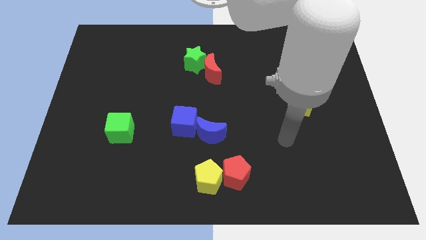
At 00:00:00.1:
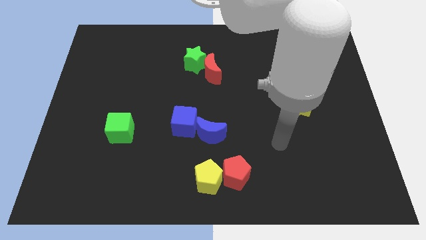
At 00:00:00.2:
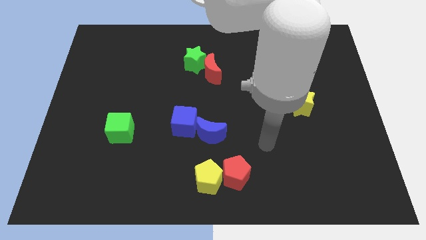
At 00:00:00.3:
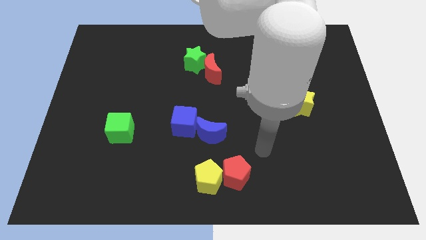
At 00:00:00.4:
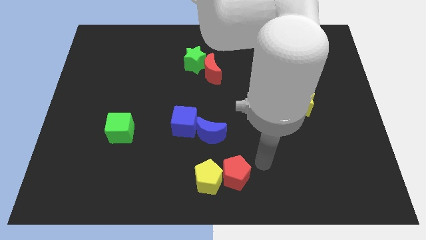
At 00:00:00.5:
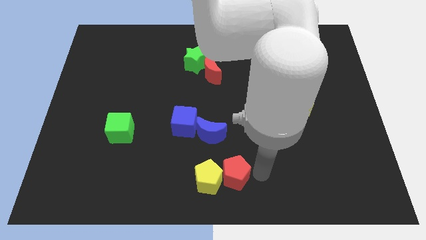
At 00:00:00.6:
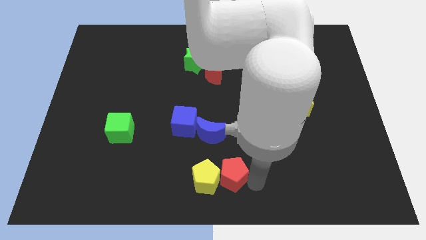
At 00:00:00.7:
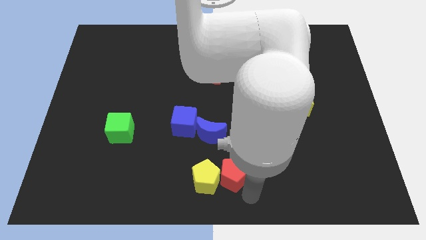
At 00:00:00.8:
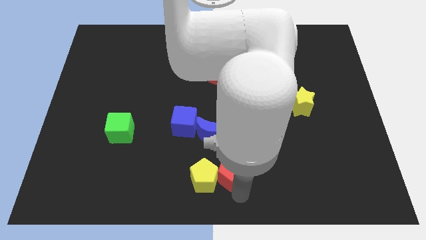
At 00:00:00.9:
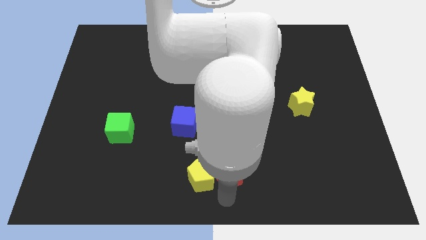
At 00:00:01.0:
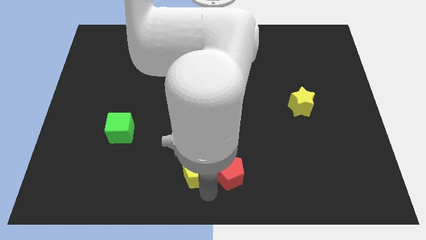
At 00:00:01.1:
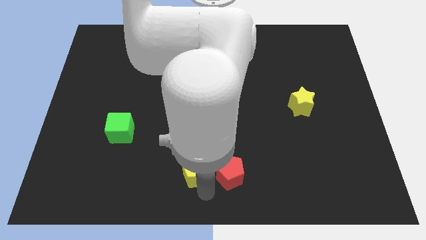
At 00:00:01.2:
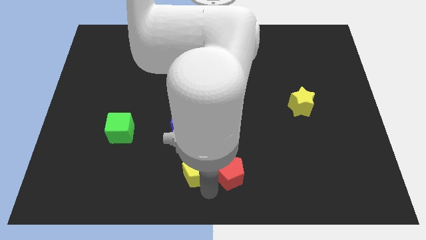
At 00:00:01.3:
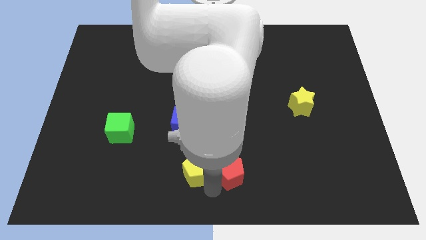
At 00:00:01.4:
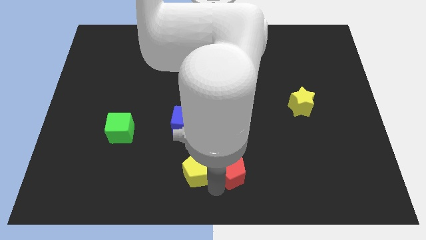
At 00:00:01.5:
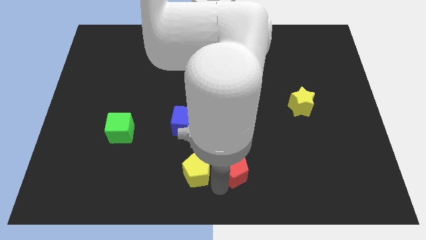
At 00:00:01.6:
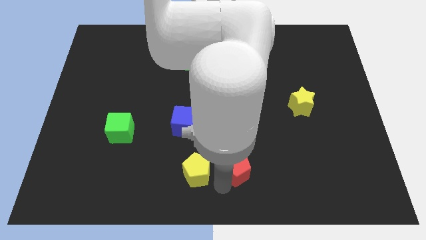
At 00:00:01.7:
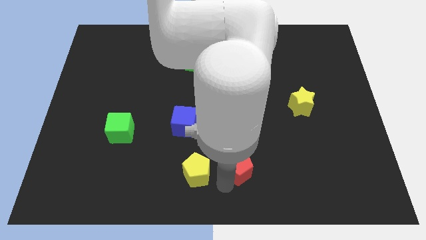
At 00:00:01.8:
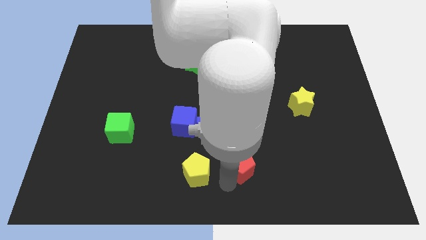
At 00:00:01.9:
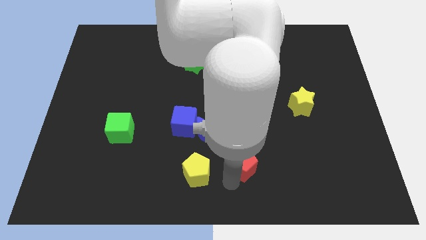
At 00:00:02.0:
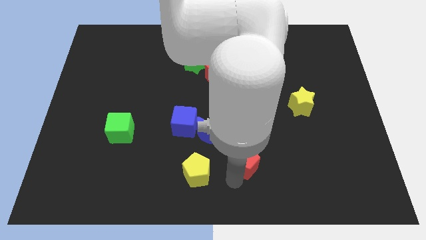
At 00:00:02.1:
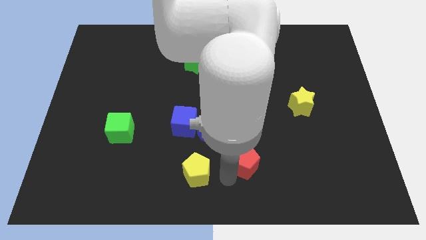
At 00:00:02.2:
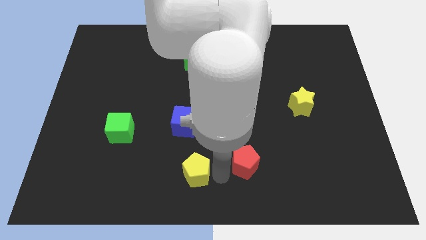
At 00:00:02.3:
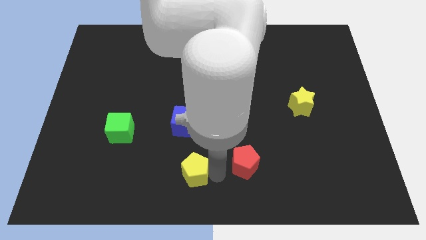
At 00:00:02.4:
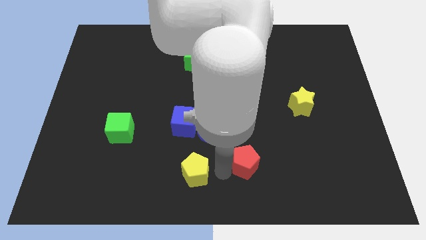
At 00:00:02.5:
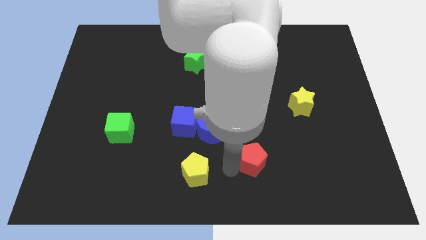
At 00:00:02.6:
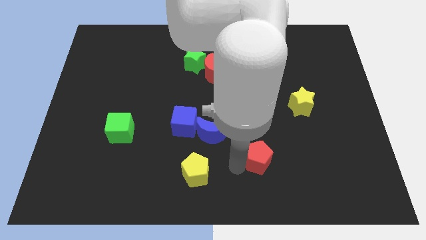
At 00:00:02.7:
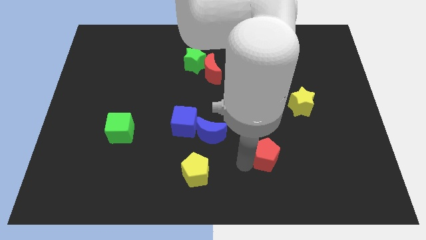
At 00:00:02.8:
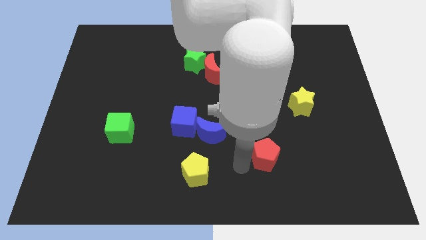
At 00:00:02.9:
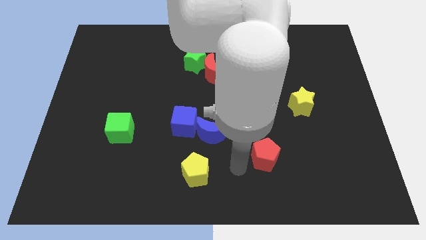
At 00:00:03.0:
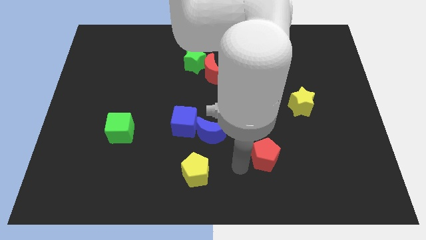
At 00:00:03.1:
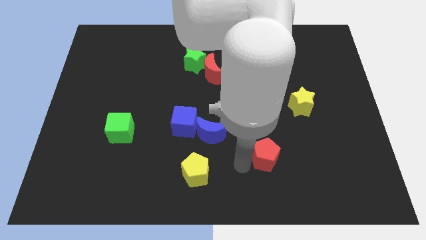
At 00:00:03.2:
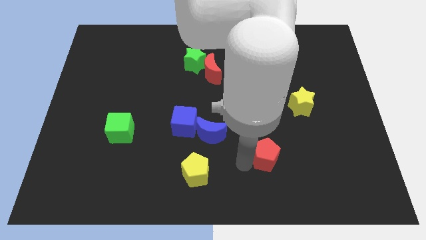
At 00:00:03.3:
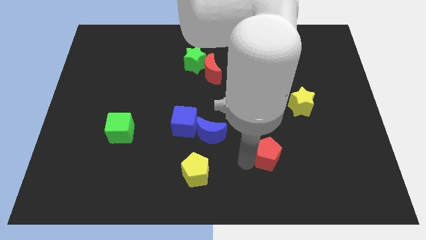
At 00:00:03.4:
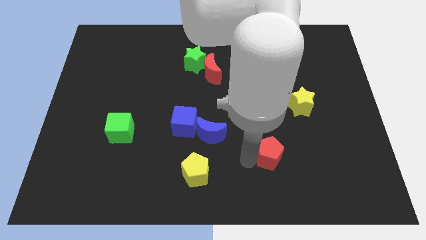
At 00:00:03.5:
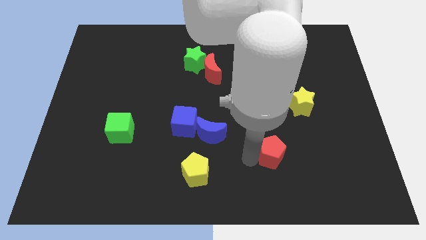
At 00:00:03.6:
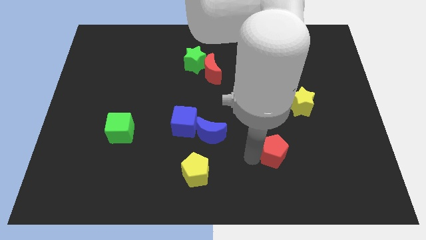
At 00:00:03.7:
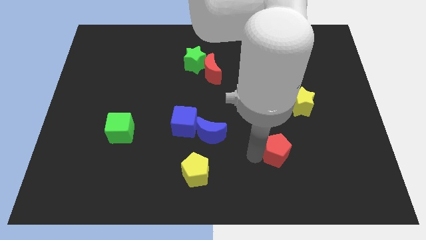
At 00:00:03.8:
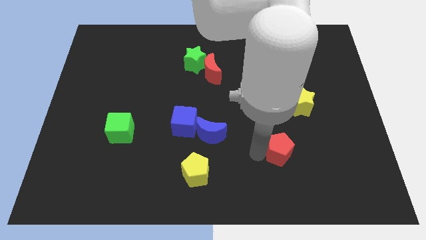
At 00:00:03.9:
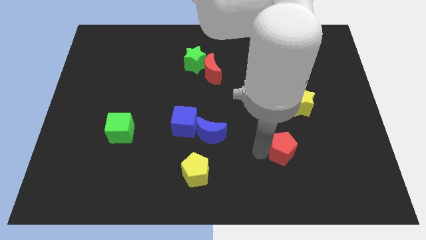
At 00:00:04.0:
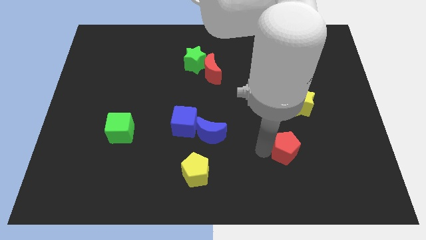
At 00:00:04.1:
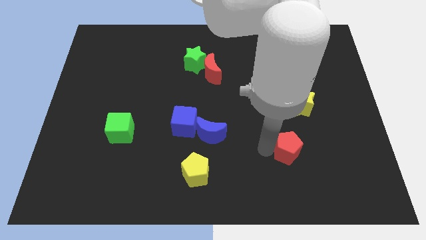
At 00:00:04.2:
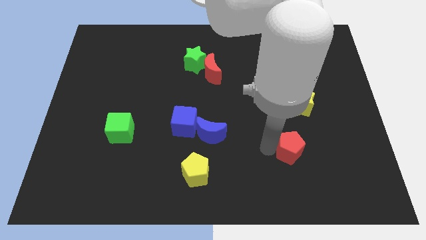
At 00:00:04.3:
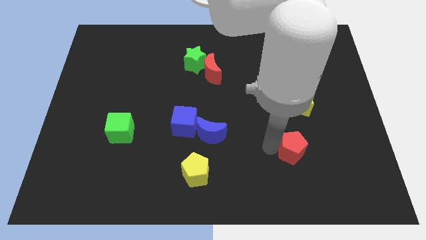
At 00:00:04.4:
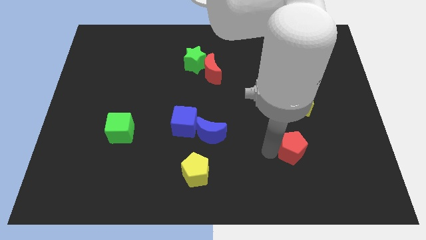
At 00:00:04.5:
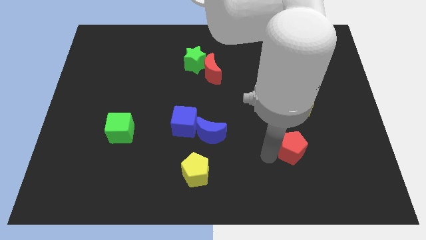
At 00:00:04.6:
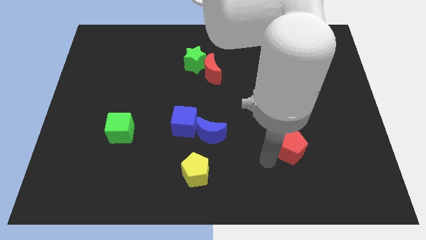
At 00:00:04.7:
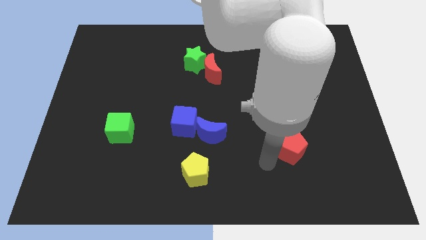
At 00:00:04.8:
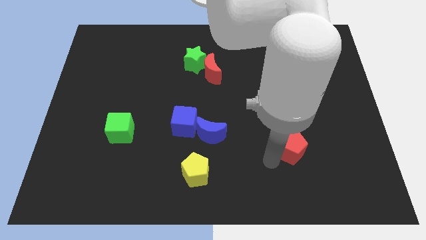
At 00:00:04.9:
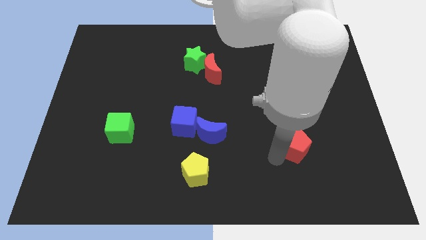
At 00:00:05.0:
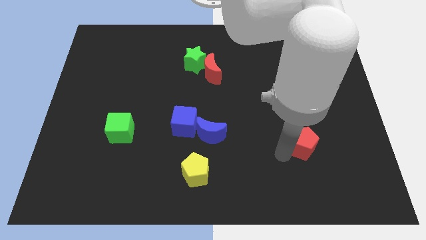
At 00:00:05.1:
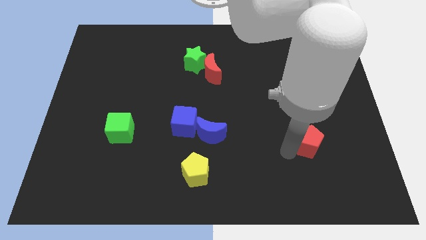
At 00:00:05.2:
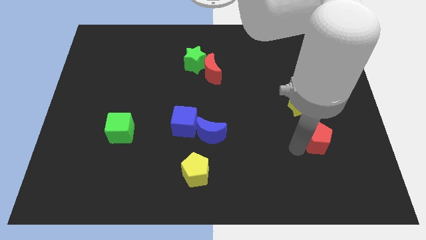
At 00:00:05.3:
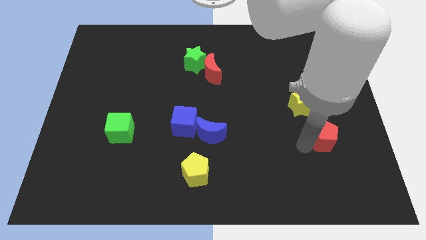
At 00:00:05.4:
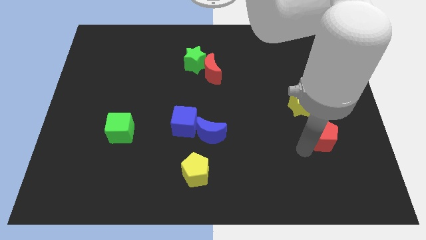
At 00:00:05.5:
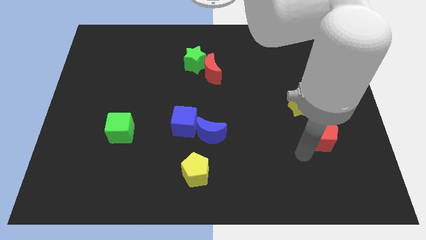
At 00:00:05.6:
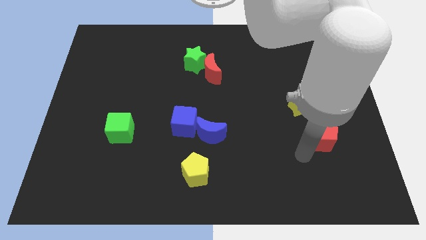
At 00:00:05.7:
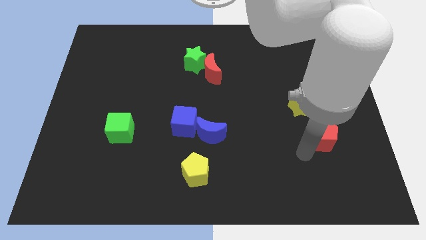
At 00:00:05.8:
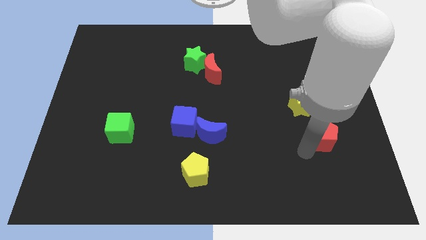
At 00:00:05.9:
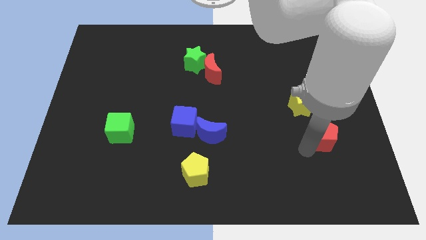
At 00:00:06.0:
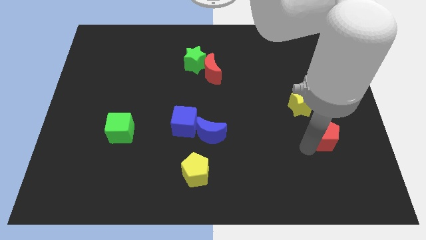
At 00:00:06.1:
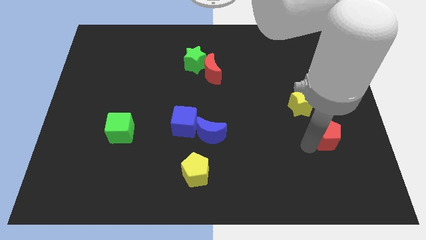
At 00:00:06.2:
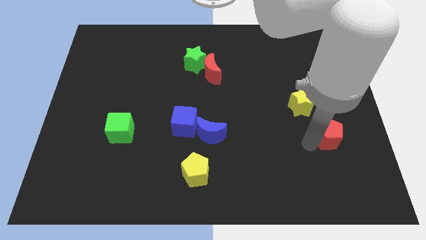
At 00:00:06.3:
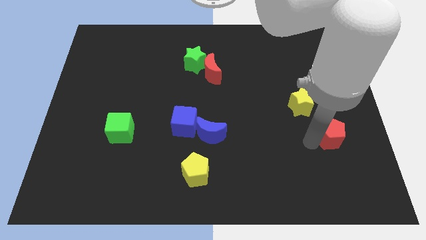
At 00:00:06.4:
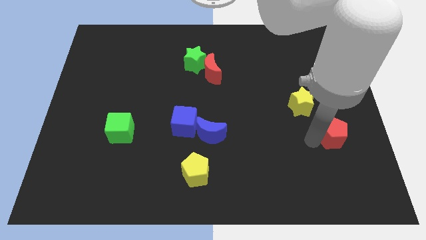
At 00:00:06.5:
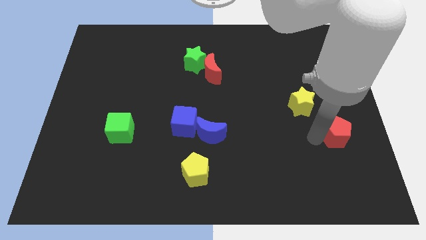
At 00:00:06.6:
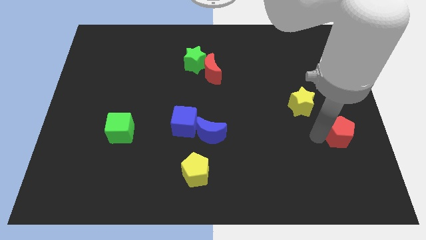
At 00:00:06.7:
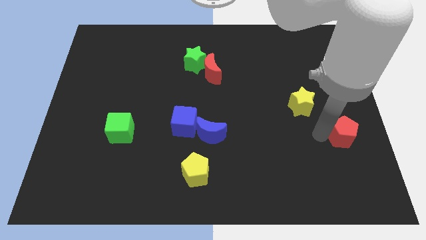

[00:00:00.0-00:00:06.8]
move the red pentagon to the right side
